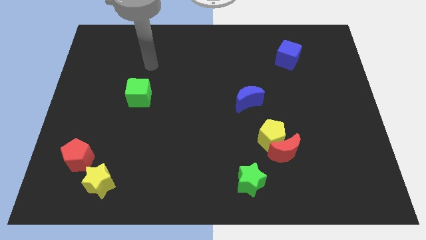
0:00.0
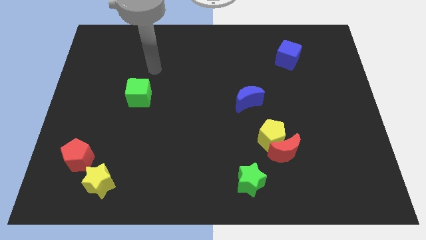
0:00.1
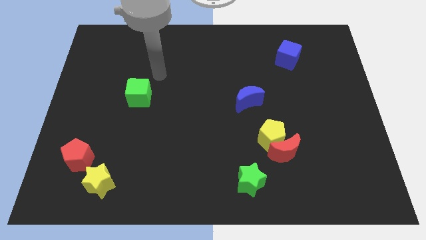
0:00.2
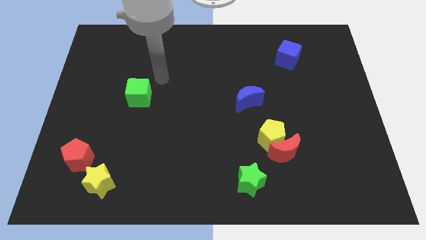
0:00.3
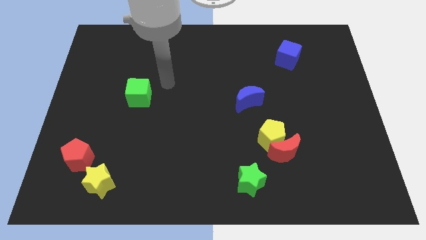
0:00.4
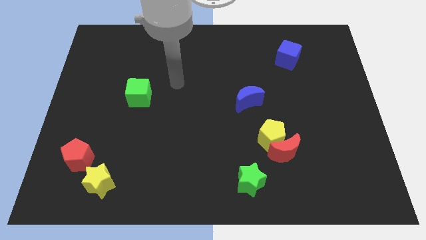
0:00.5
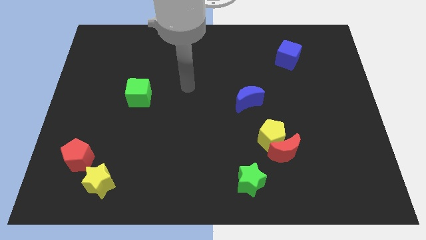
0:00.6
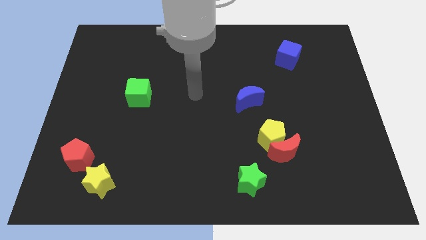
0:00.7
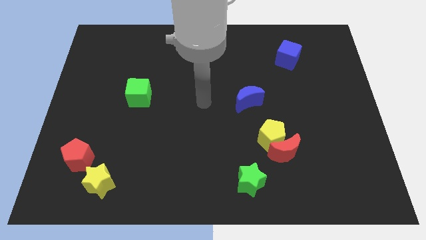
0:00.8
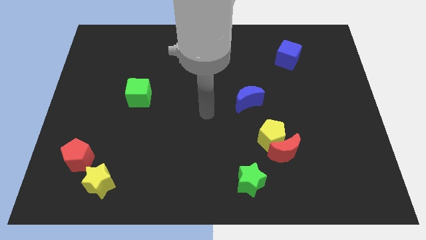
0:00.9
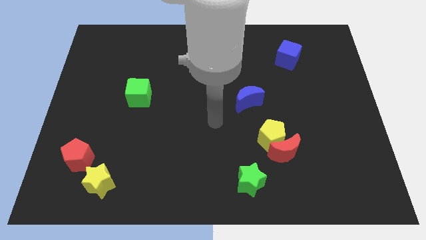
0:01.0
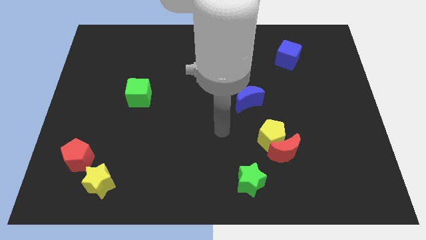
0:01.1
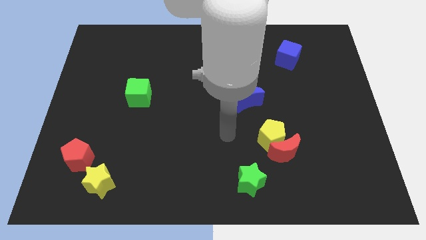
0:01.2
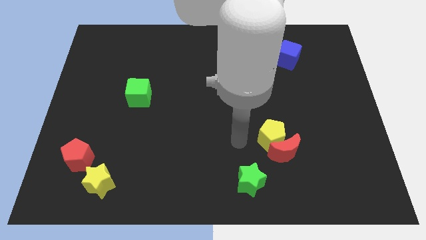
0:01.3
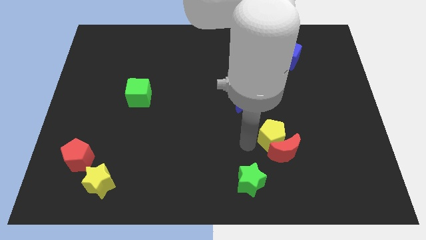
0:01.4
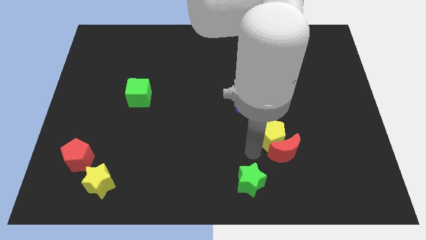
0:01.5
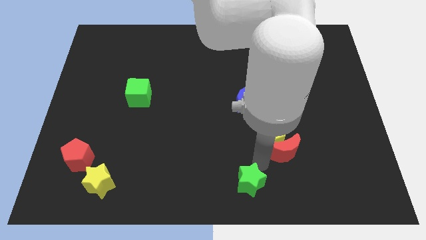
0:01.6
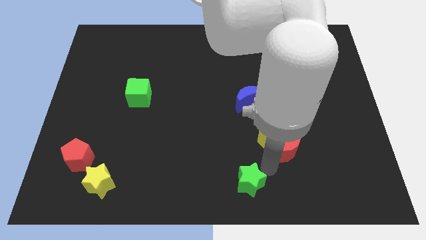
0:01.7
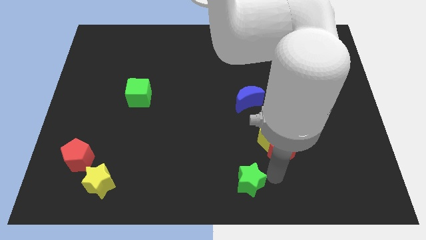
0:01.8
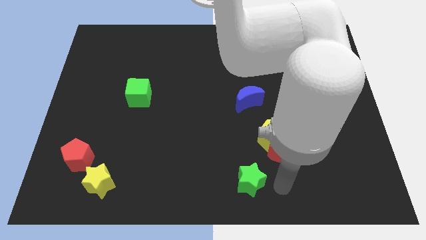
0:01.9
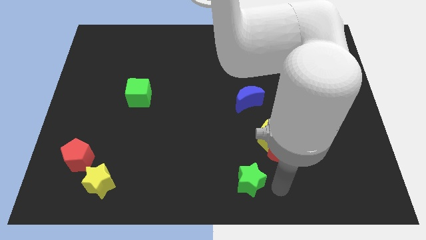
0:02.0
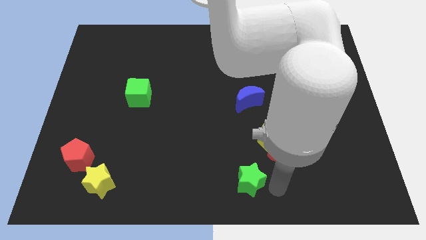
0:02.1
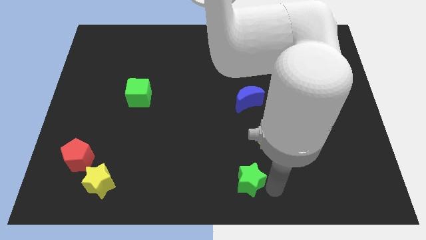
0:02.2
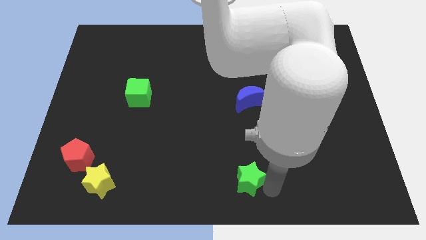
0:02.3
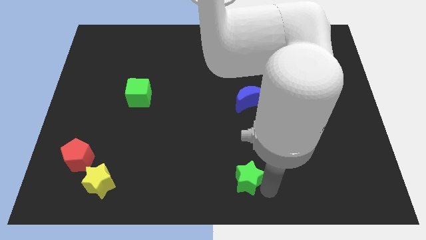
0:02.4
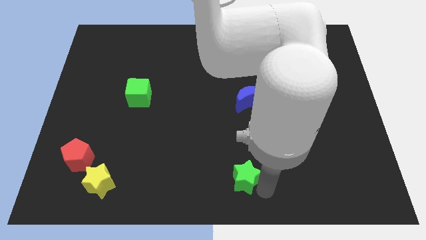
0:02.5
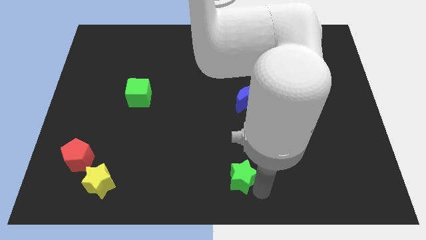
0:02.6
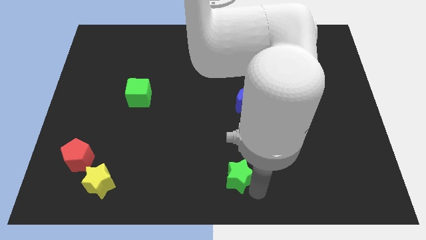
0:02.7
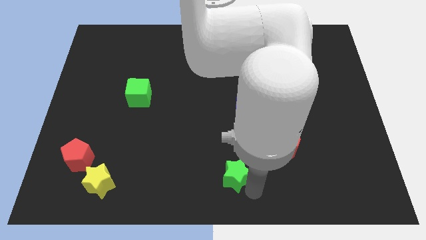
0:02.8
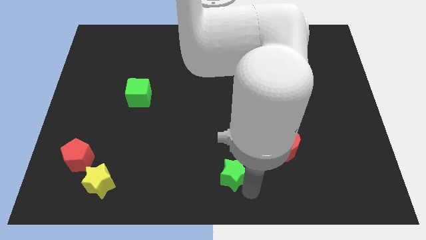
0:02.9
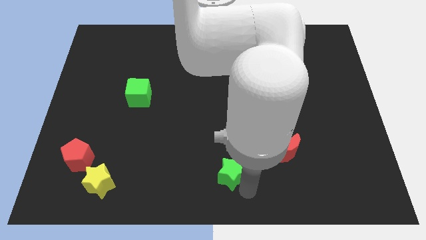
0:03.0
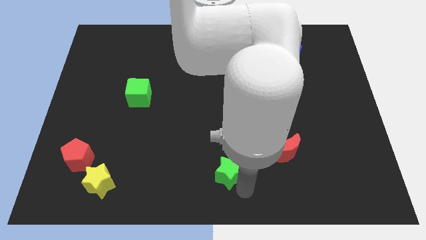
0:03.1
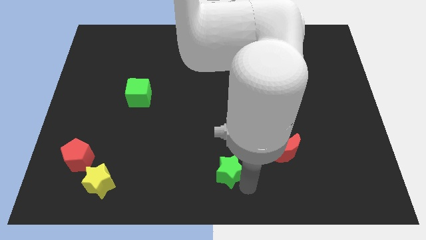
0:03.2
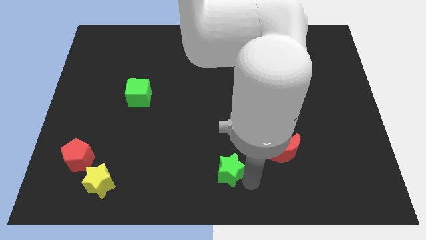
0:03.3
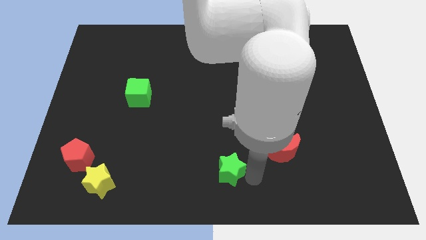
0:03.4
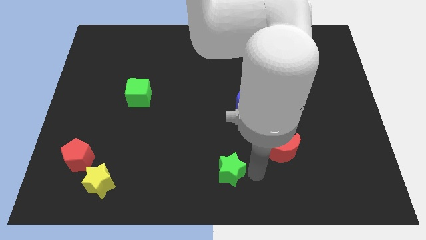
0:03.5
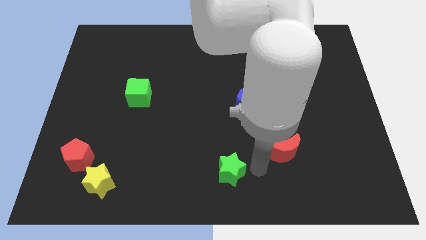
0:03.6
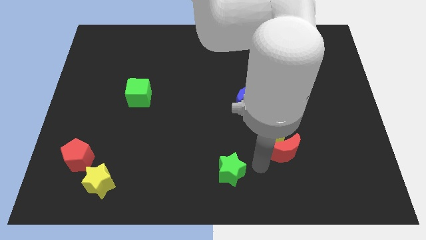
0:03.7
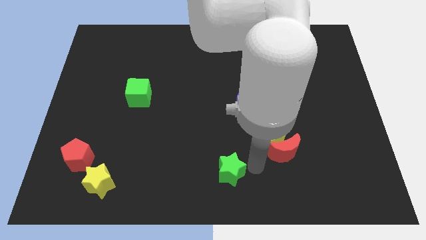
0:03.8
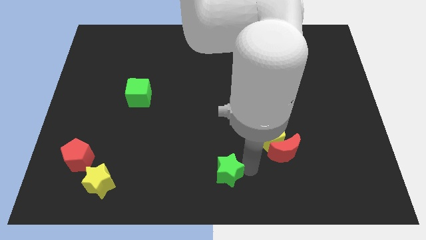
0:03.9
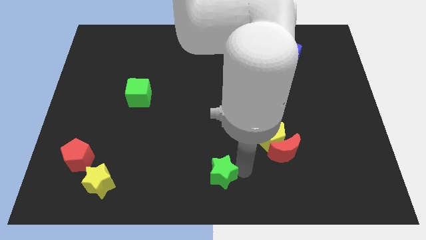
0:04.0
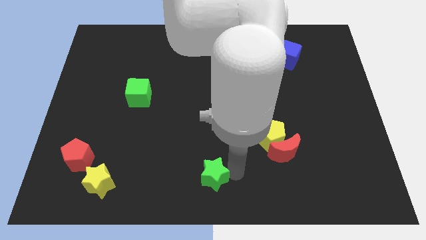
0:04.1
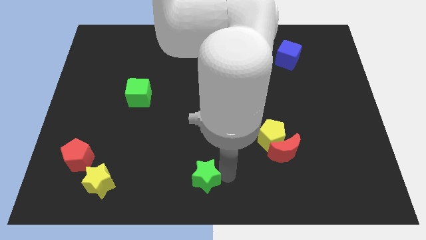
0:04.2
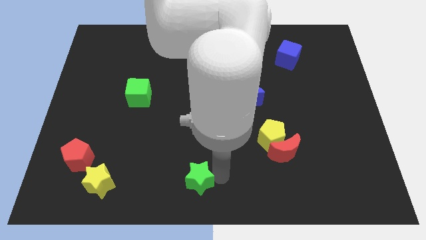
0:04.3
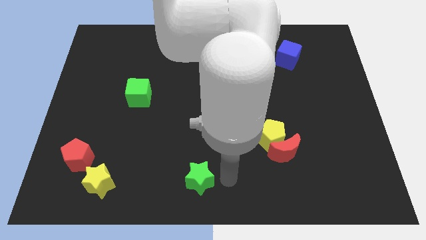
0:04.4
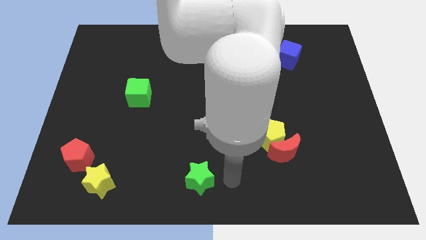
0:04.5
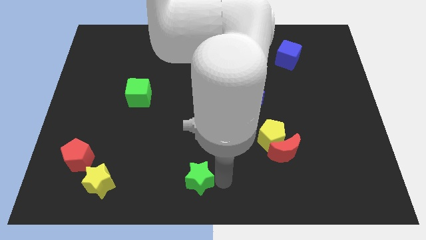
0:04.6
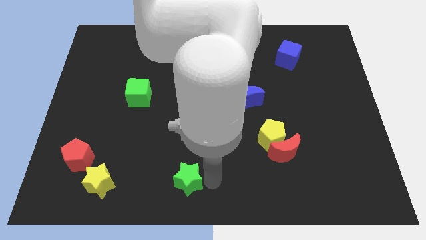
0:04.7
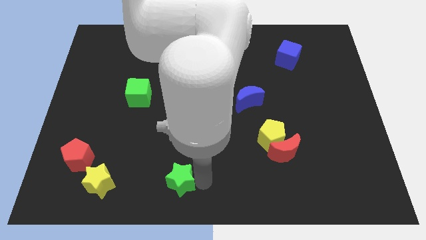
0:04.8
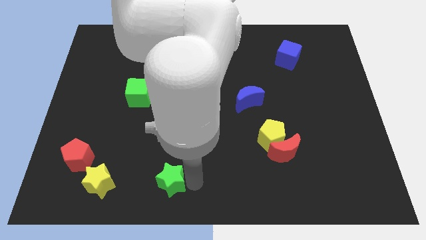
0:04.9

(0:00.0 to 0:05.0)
put the green star right of the yellow star

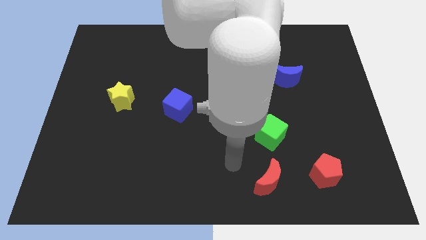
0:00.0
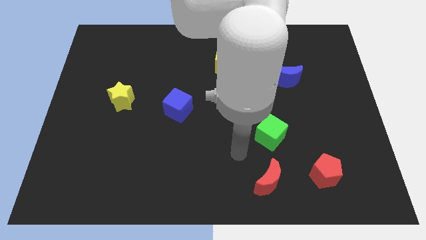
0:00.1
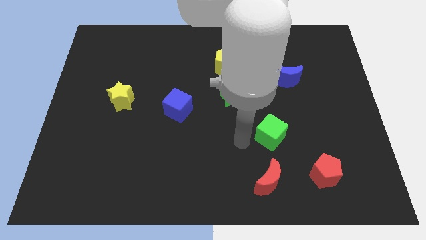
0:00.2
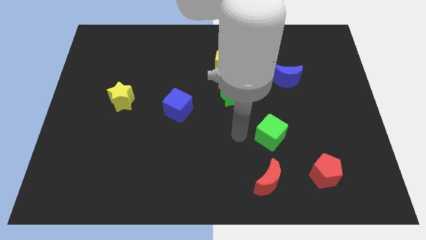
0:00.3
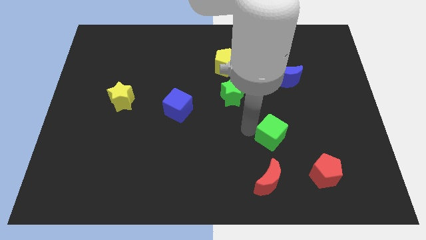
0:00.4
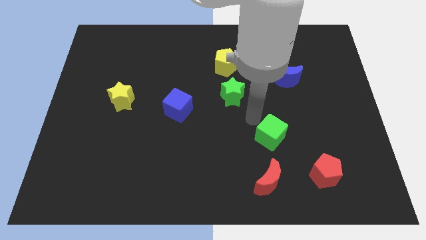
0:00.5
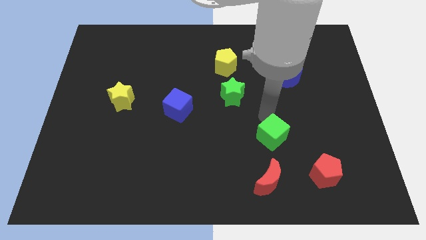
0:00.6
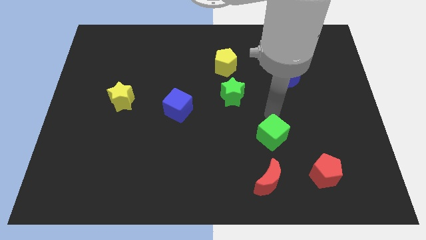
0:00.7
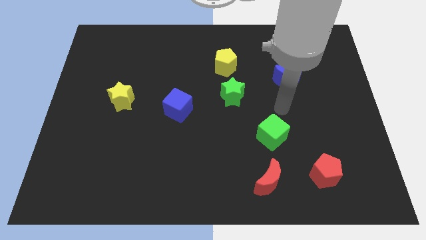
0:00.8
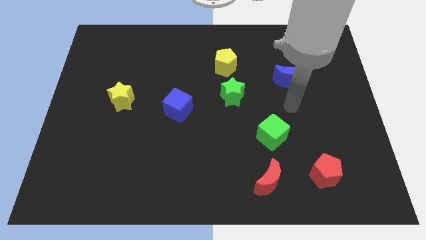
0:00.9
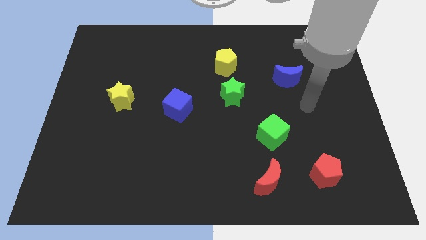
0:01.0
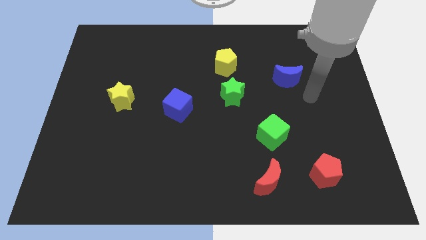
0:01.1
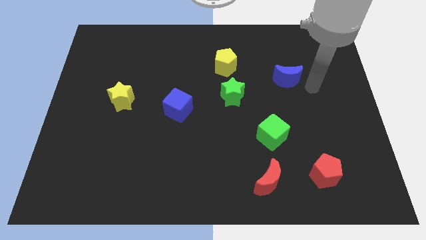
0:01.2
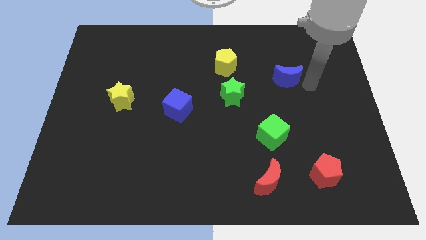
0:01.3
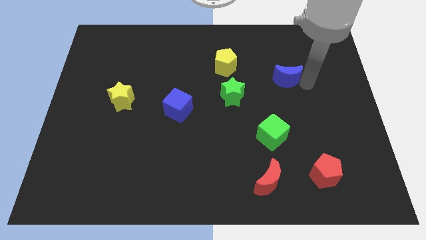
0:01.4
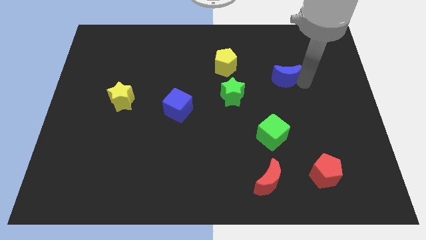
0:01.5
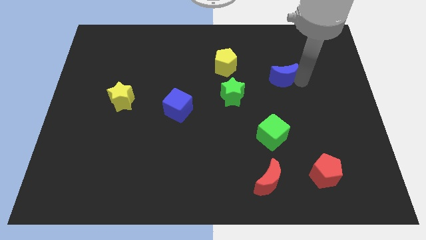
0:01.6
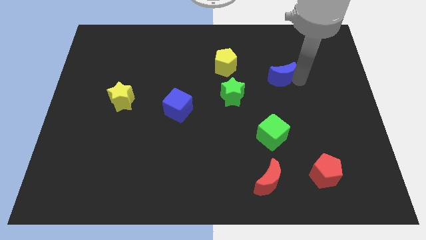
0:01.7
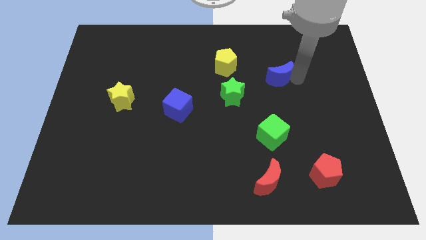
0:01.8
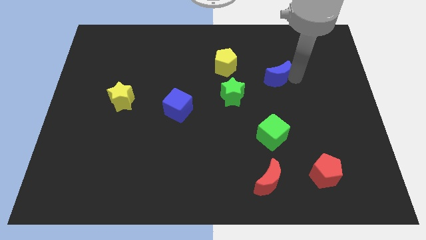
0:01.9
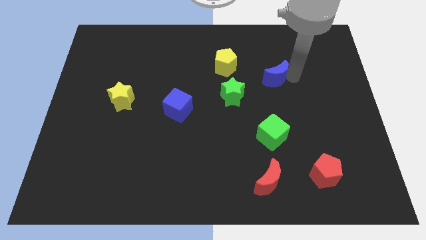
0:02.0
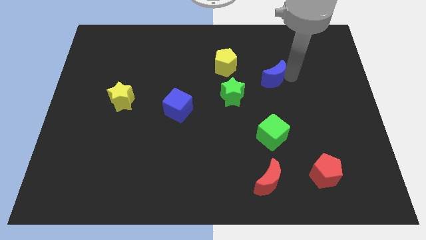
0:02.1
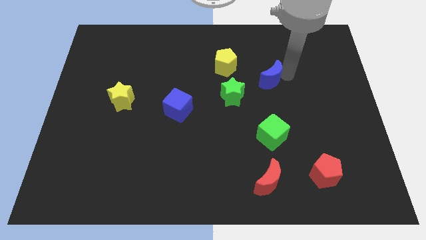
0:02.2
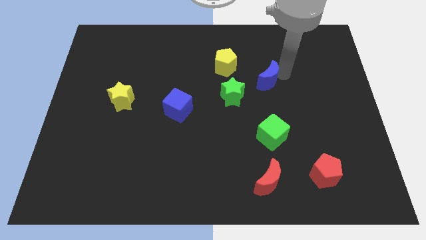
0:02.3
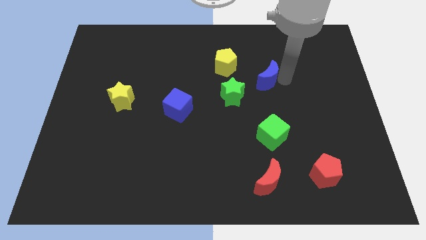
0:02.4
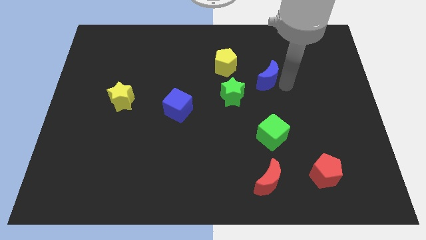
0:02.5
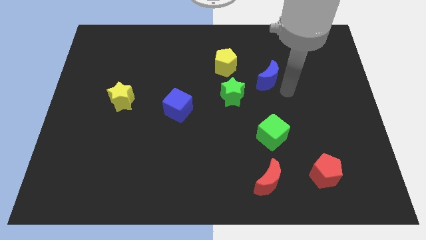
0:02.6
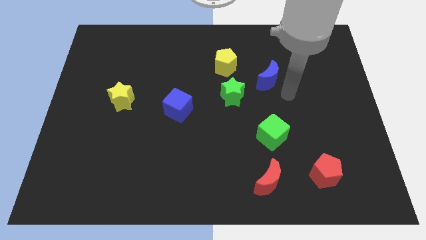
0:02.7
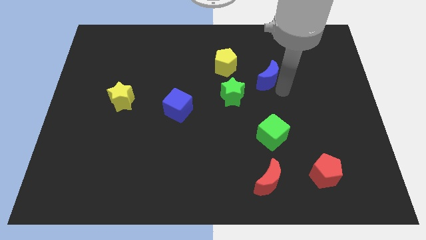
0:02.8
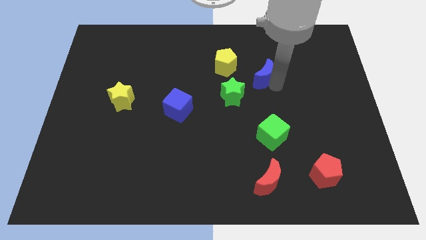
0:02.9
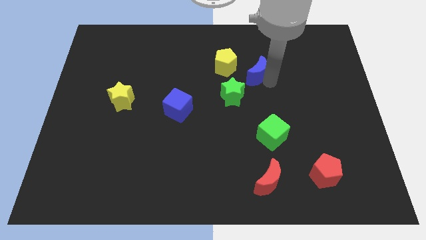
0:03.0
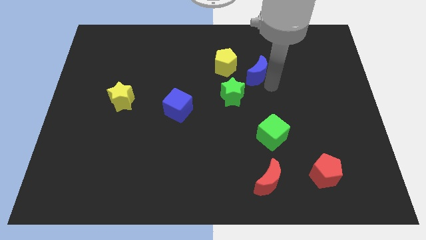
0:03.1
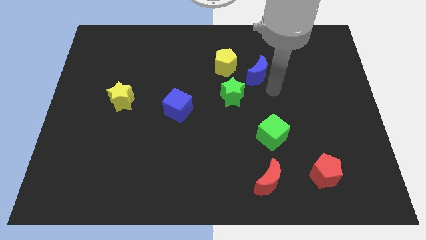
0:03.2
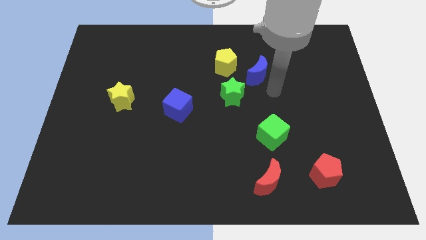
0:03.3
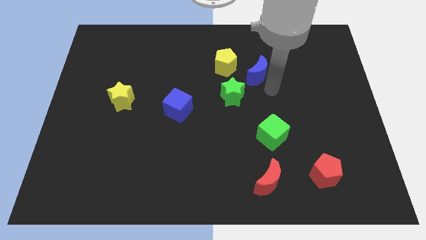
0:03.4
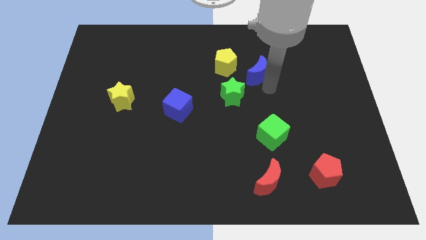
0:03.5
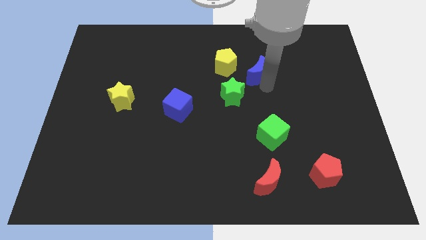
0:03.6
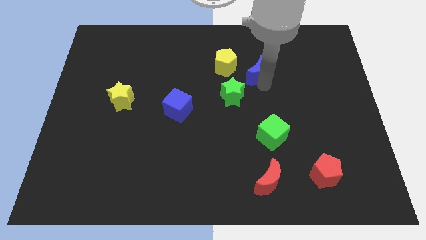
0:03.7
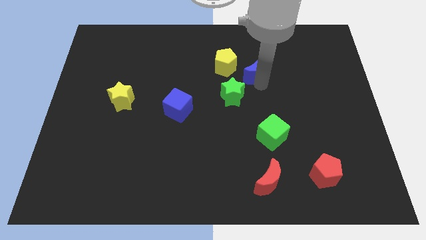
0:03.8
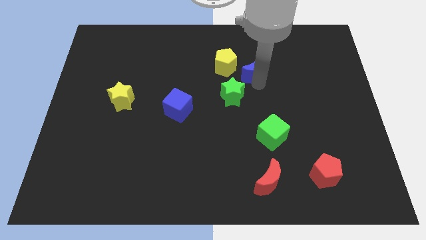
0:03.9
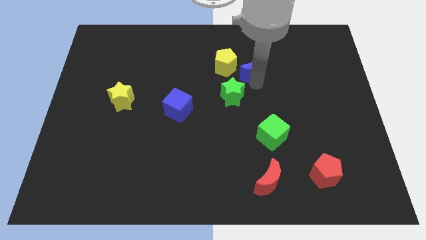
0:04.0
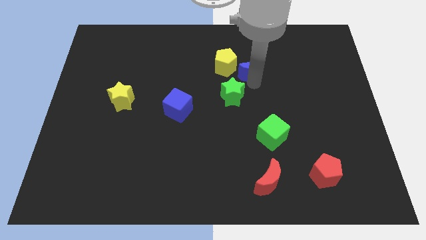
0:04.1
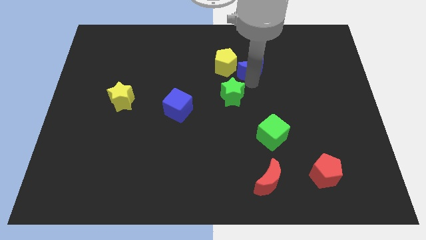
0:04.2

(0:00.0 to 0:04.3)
move the blue moon above the green star
